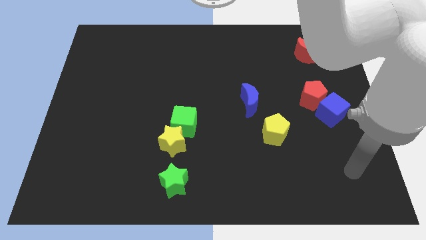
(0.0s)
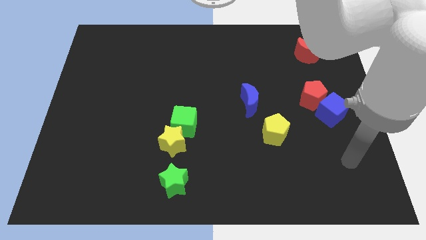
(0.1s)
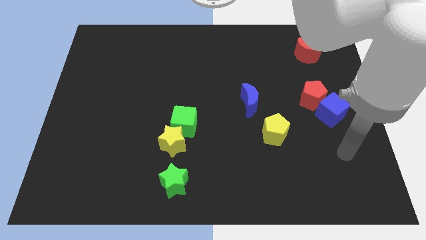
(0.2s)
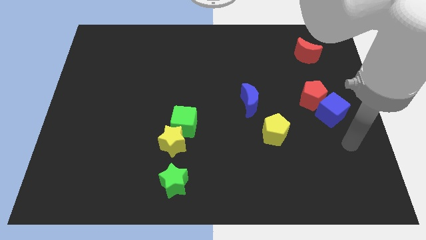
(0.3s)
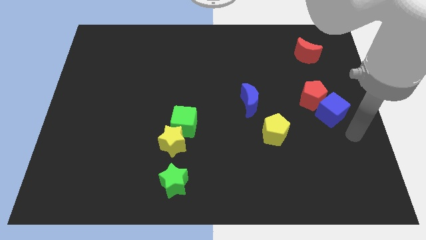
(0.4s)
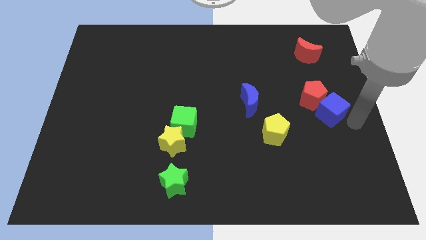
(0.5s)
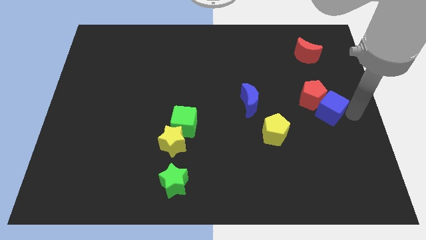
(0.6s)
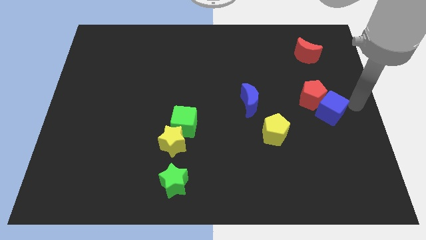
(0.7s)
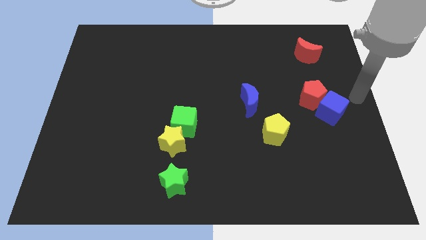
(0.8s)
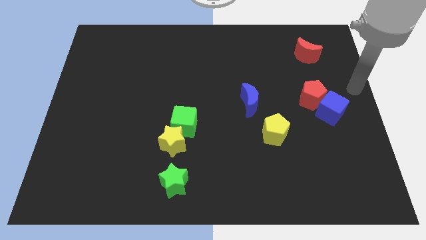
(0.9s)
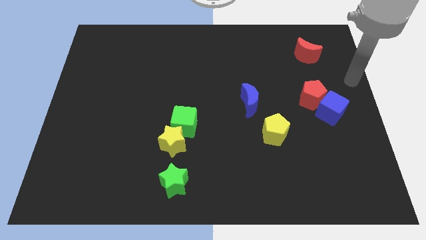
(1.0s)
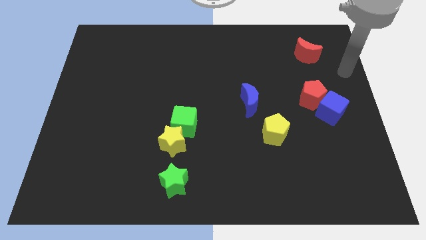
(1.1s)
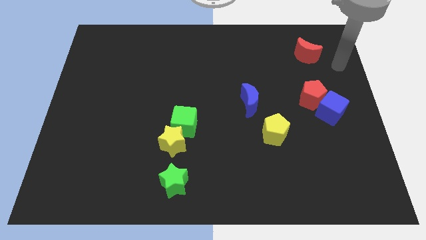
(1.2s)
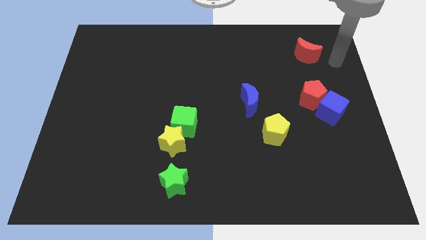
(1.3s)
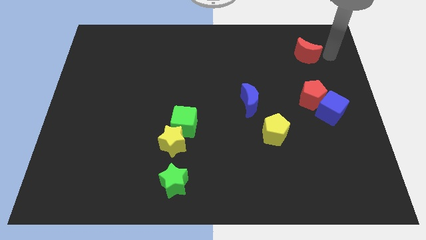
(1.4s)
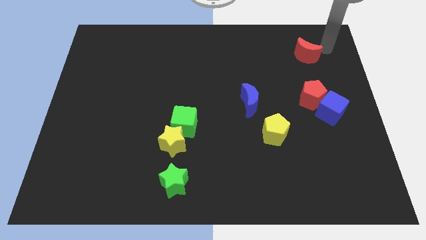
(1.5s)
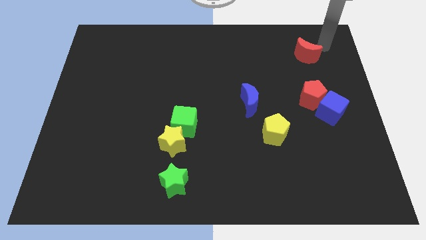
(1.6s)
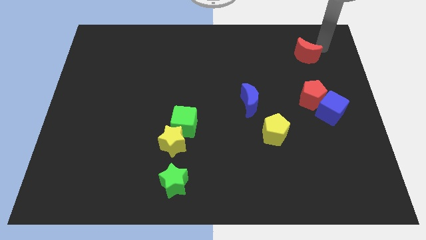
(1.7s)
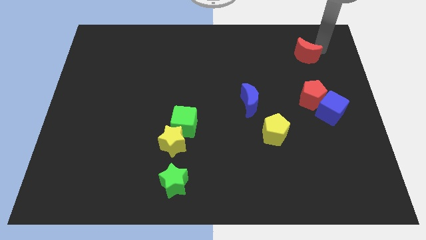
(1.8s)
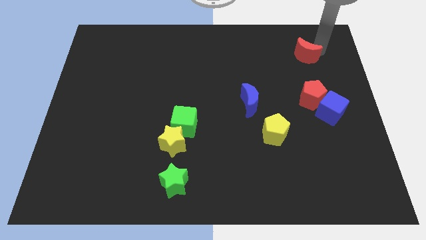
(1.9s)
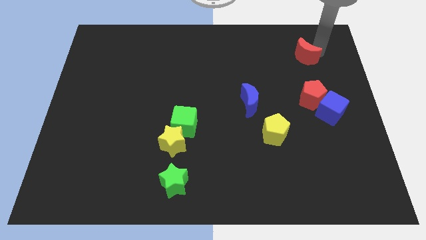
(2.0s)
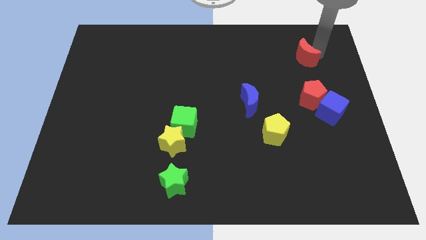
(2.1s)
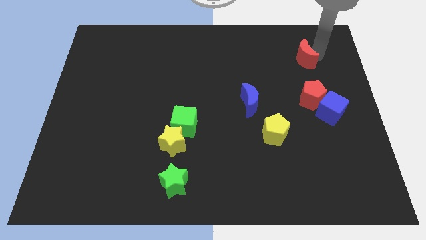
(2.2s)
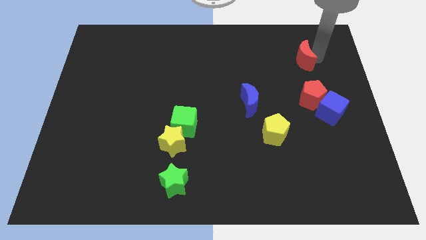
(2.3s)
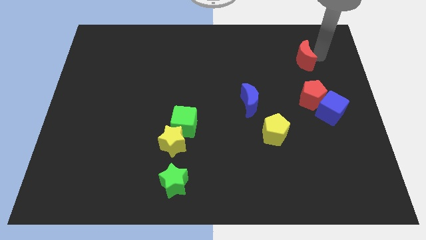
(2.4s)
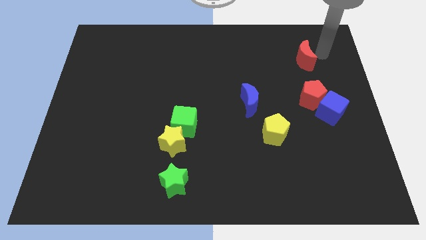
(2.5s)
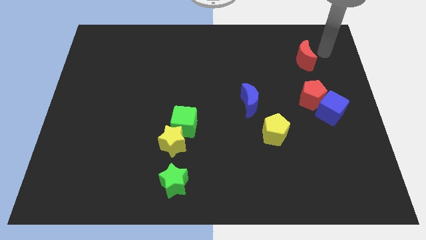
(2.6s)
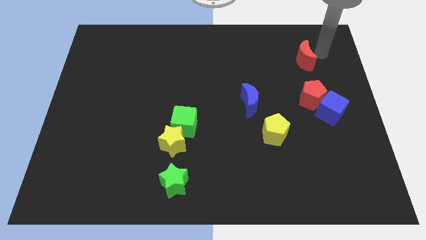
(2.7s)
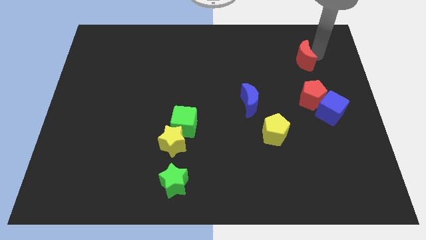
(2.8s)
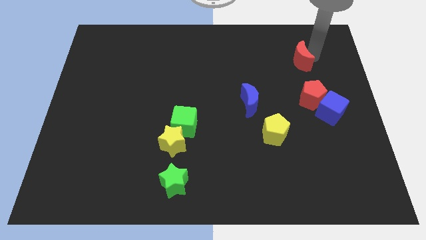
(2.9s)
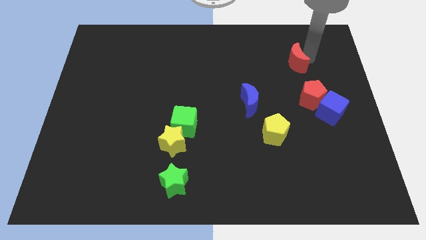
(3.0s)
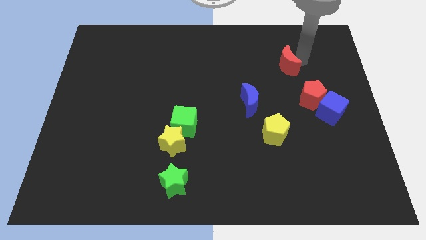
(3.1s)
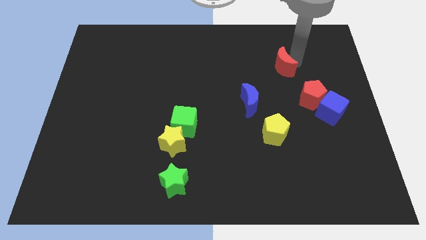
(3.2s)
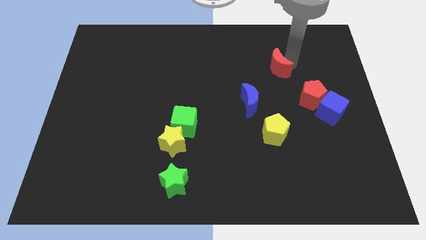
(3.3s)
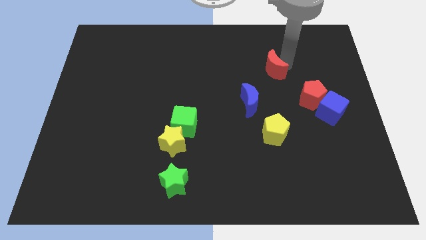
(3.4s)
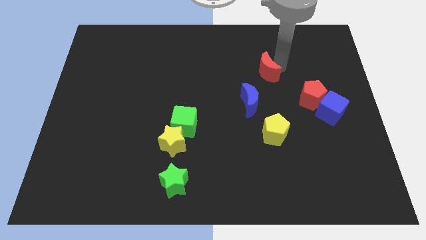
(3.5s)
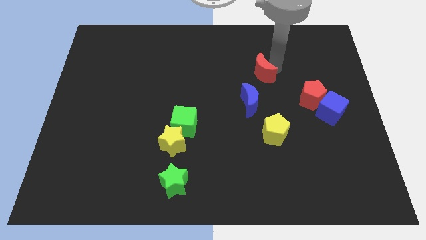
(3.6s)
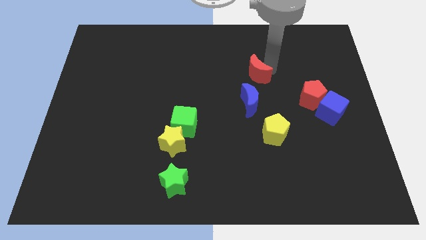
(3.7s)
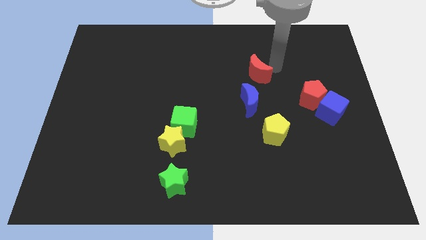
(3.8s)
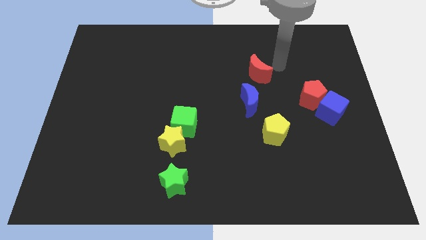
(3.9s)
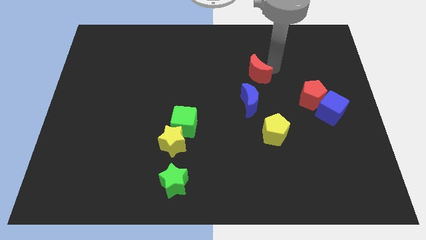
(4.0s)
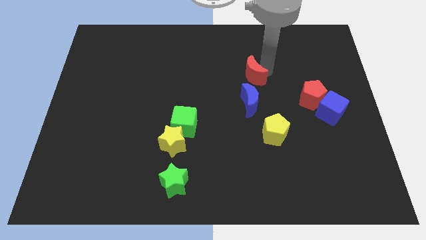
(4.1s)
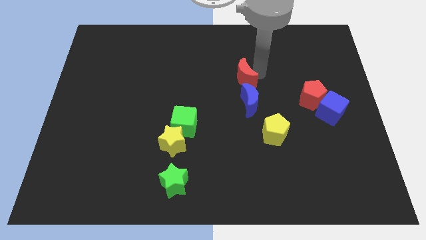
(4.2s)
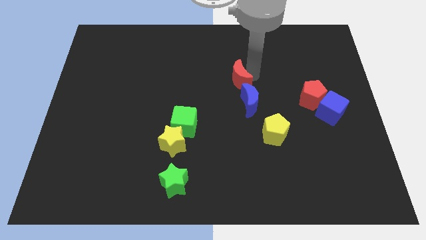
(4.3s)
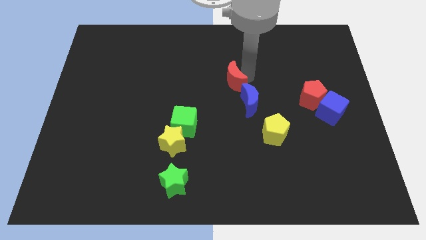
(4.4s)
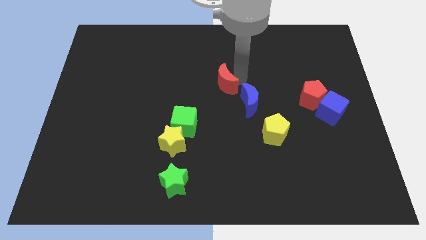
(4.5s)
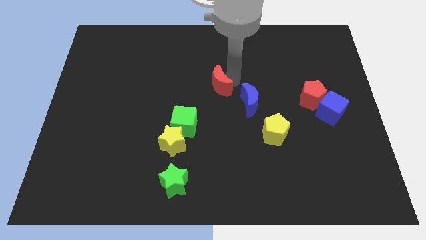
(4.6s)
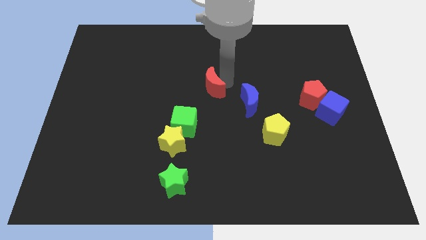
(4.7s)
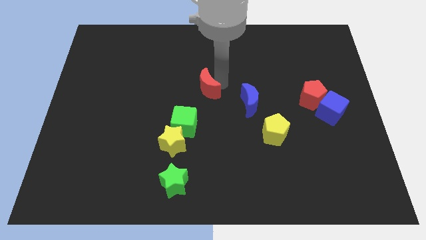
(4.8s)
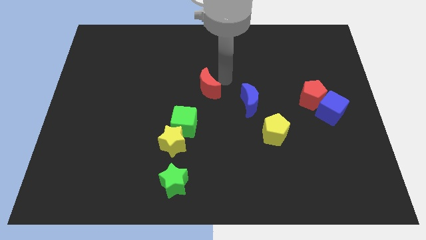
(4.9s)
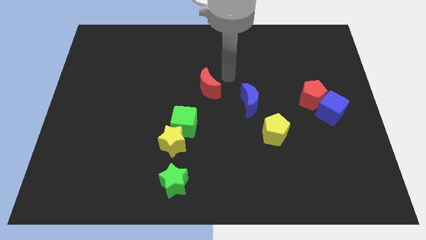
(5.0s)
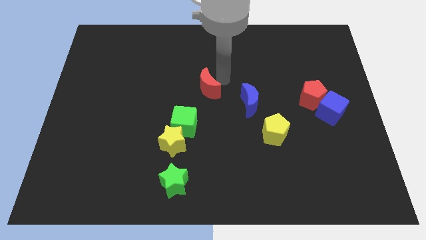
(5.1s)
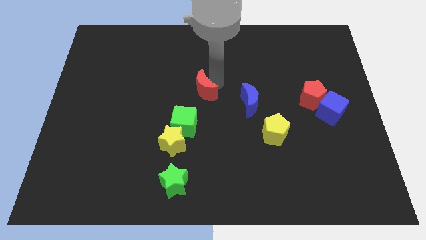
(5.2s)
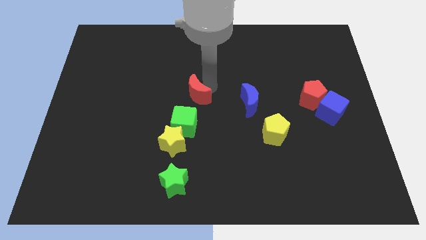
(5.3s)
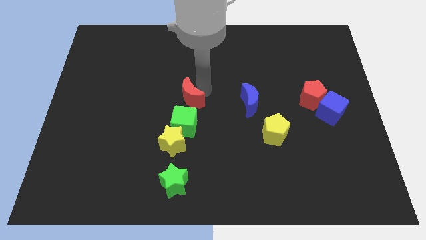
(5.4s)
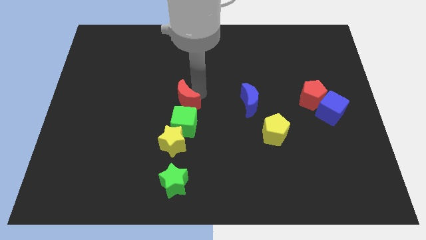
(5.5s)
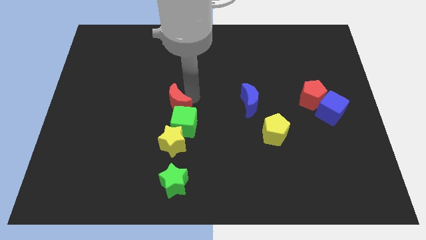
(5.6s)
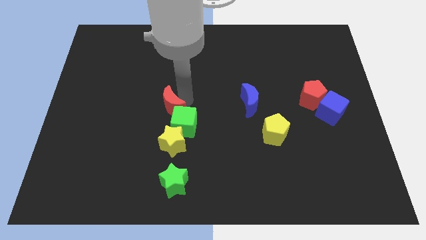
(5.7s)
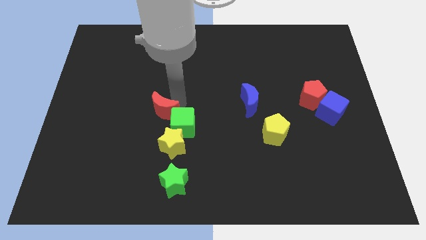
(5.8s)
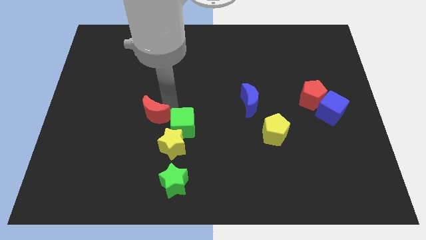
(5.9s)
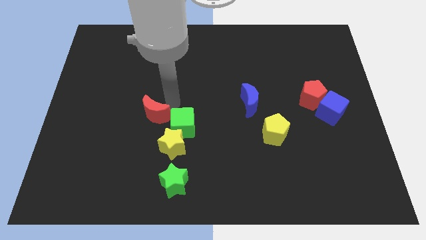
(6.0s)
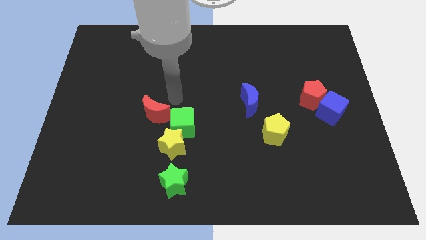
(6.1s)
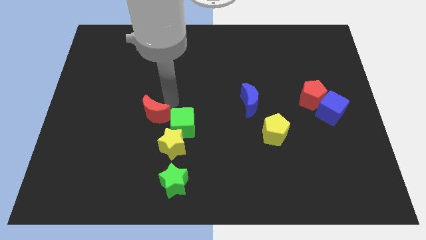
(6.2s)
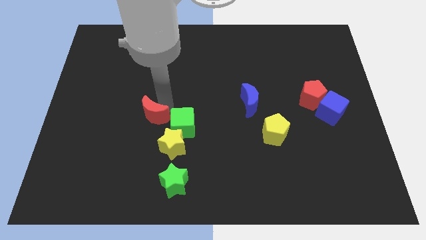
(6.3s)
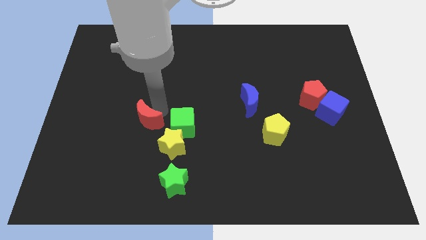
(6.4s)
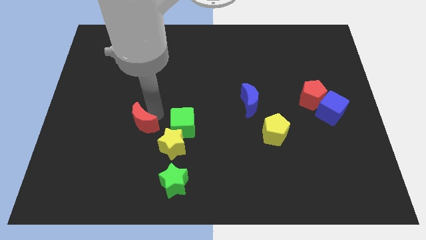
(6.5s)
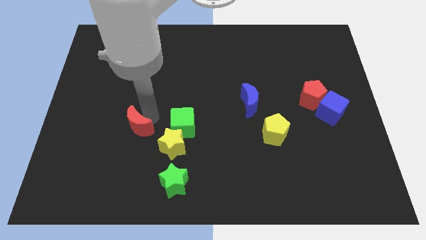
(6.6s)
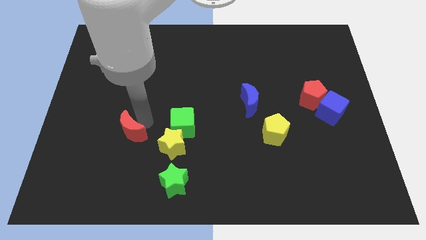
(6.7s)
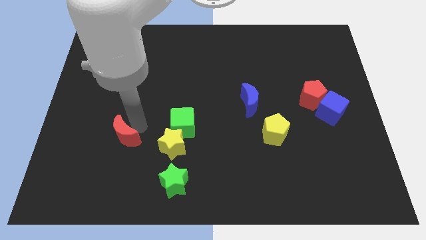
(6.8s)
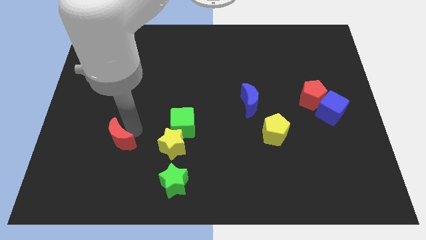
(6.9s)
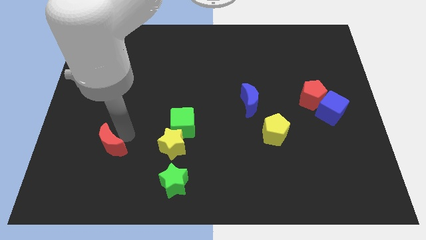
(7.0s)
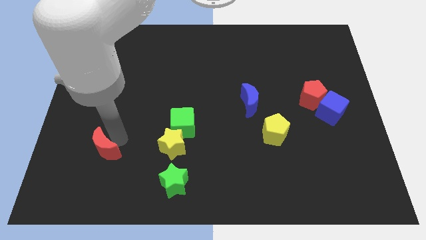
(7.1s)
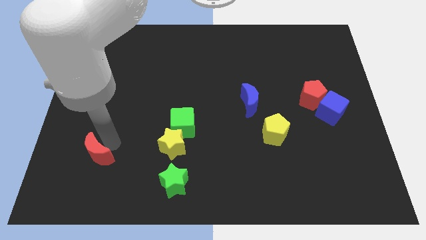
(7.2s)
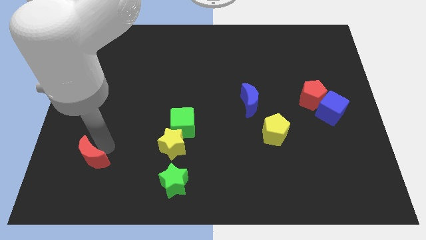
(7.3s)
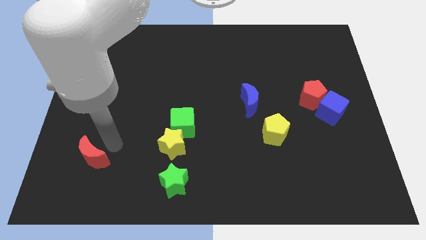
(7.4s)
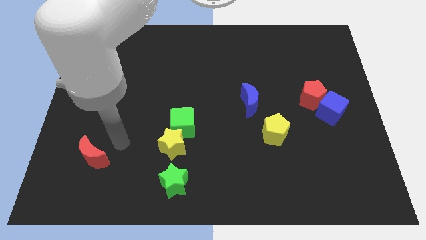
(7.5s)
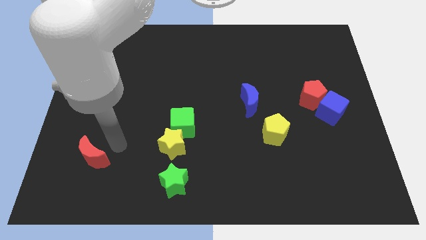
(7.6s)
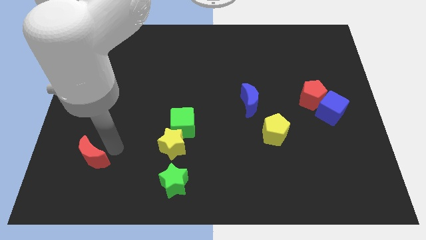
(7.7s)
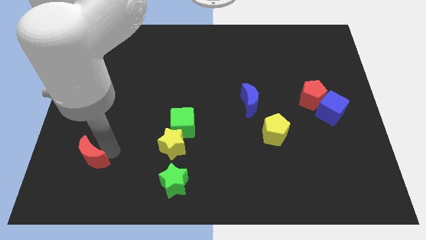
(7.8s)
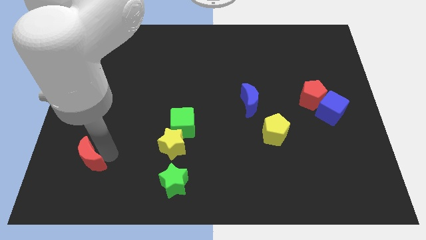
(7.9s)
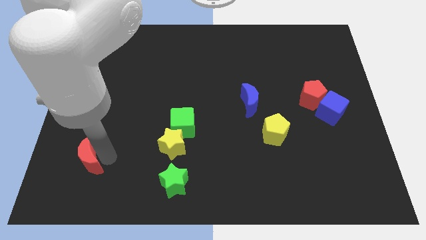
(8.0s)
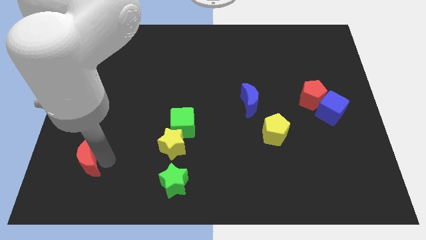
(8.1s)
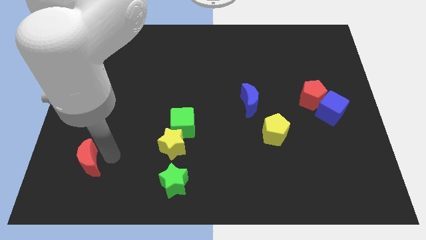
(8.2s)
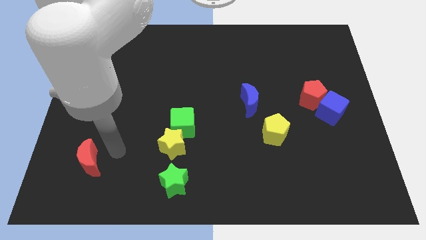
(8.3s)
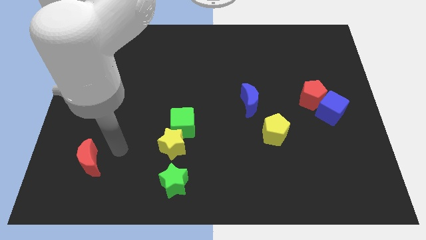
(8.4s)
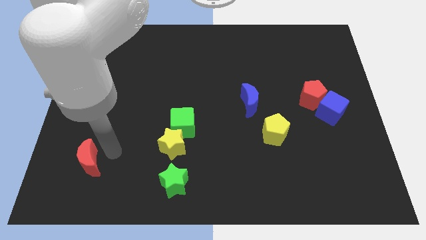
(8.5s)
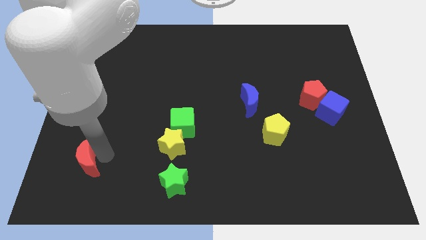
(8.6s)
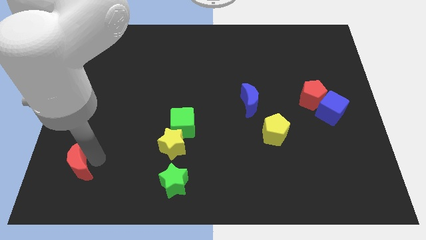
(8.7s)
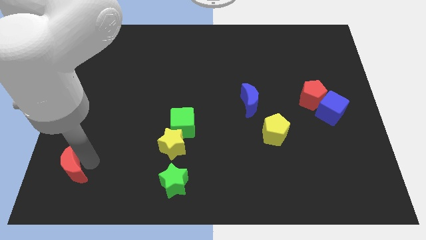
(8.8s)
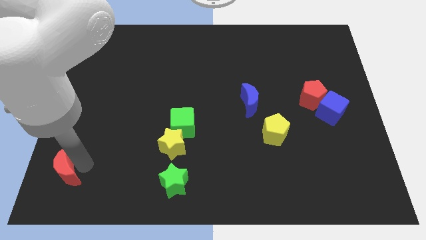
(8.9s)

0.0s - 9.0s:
push the red moon to the lower left corner
